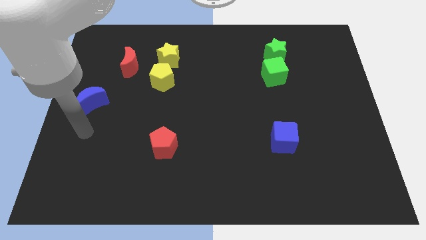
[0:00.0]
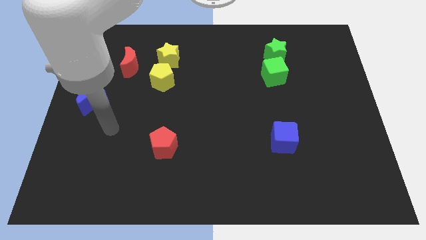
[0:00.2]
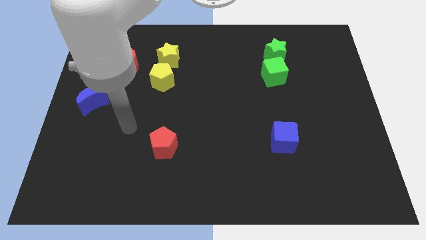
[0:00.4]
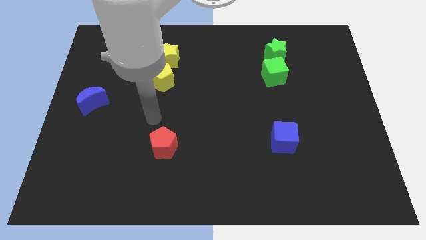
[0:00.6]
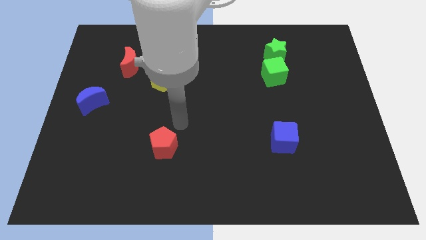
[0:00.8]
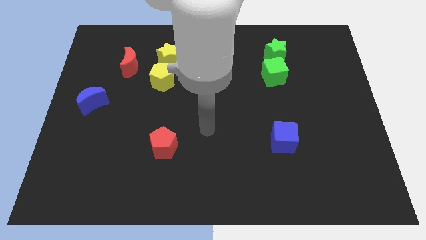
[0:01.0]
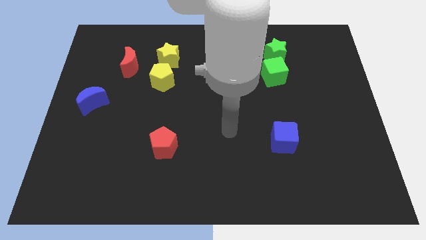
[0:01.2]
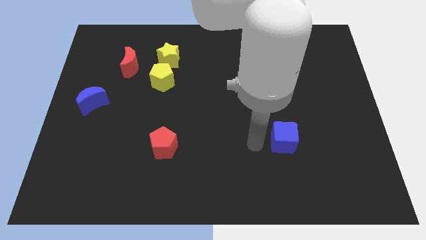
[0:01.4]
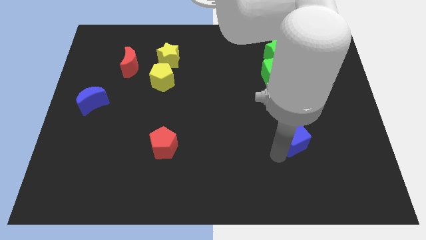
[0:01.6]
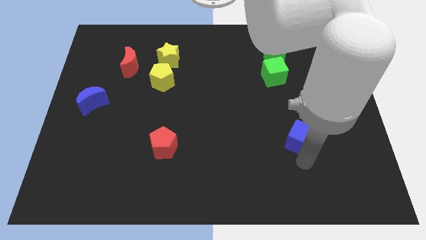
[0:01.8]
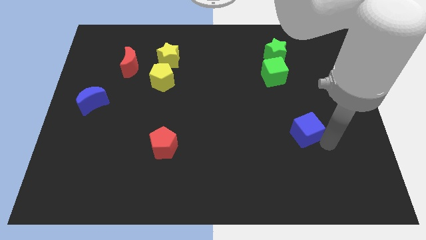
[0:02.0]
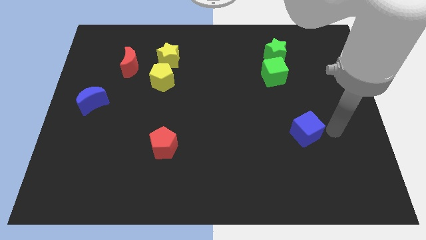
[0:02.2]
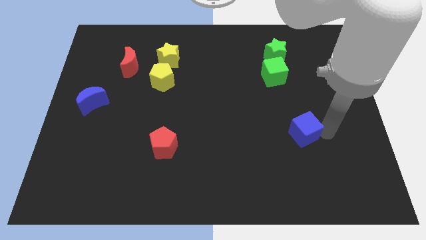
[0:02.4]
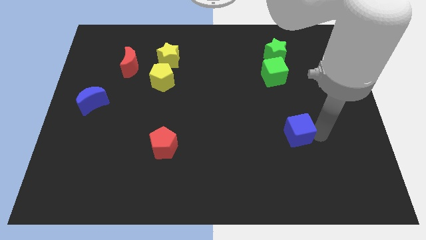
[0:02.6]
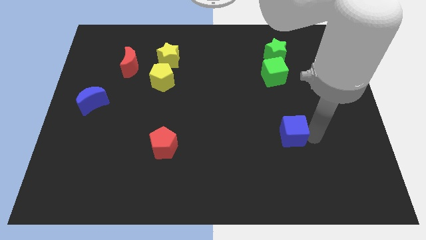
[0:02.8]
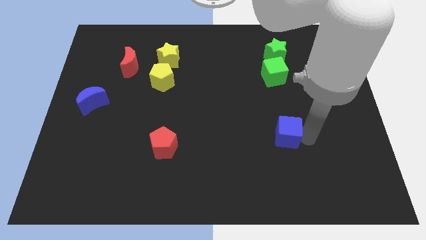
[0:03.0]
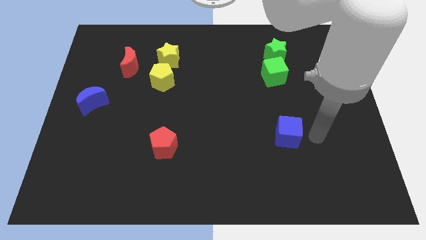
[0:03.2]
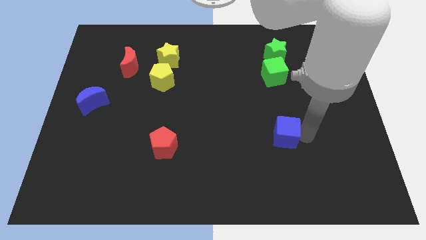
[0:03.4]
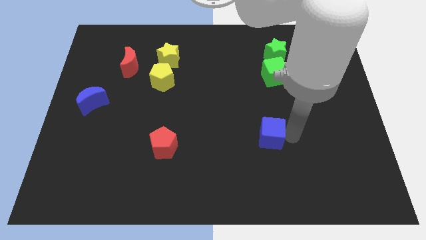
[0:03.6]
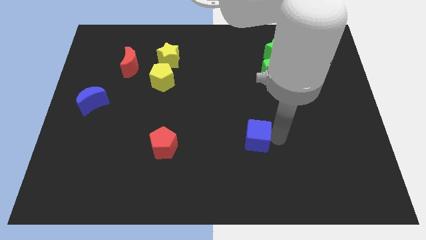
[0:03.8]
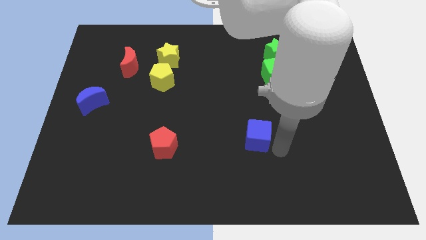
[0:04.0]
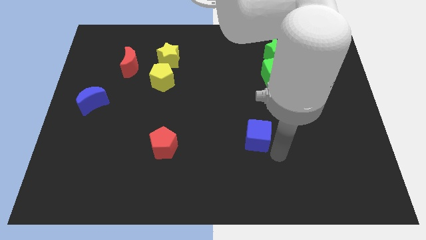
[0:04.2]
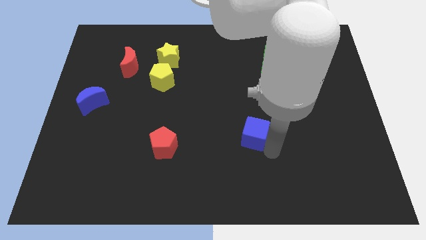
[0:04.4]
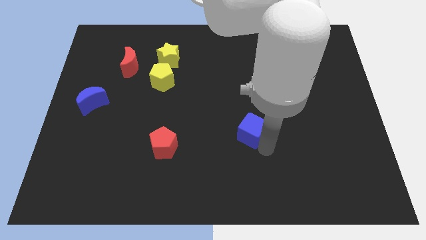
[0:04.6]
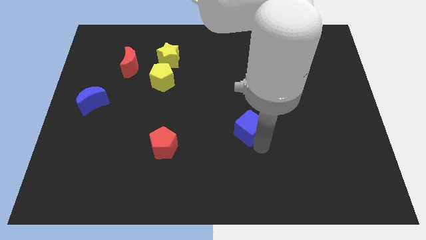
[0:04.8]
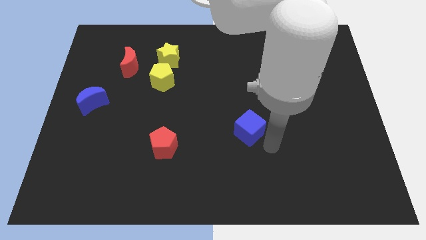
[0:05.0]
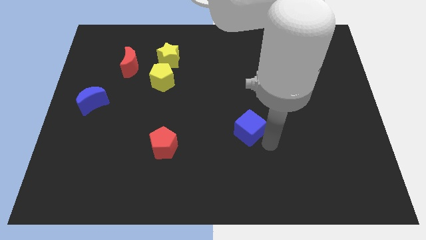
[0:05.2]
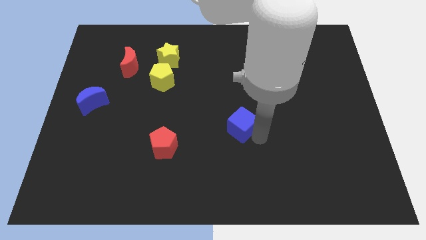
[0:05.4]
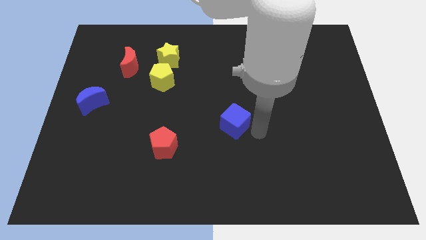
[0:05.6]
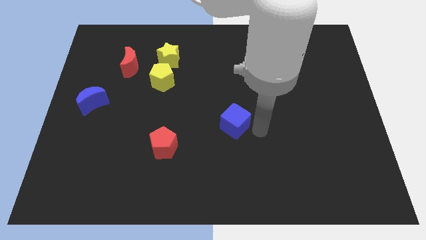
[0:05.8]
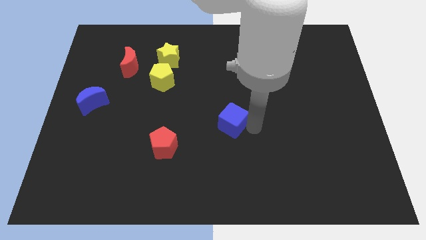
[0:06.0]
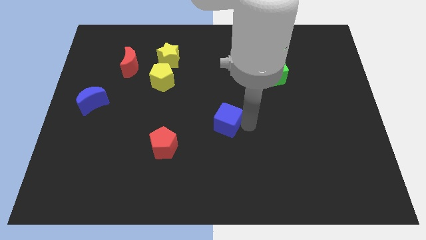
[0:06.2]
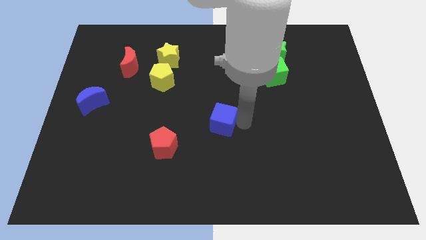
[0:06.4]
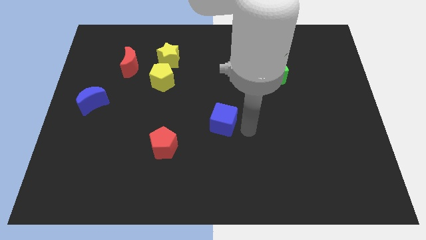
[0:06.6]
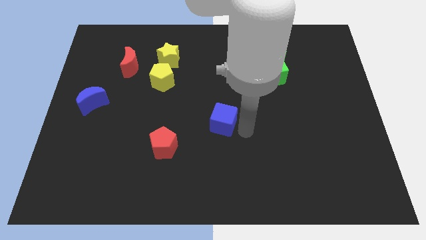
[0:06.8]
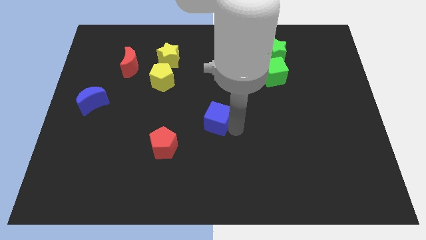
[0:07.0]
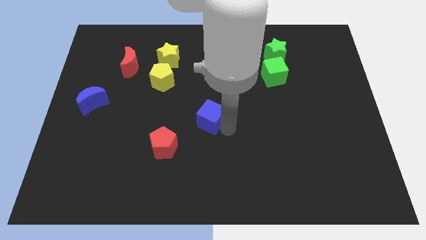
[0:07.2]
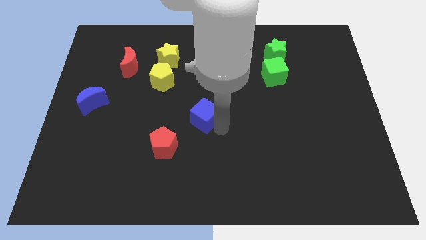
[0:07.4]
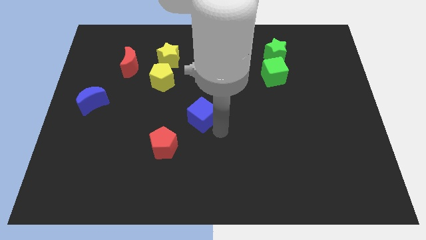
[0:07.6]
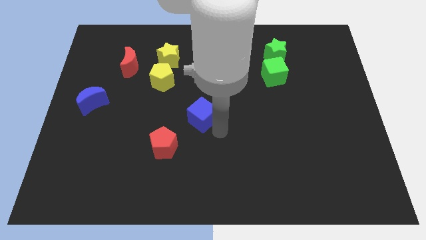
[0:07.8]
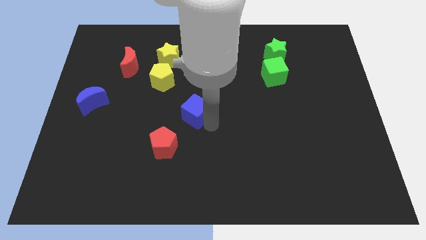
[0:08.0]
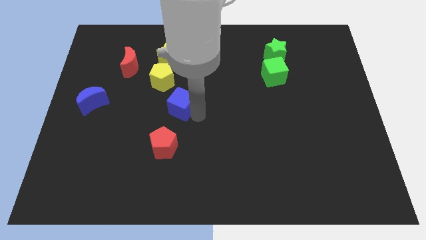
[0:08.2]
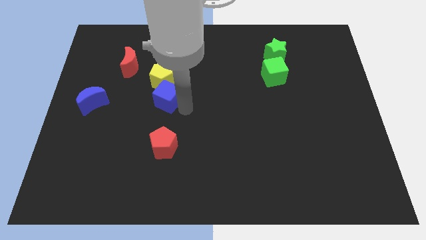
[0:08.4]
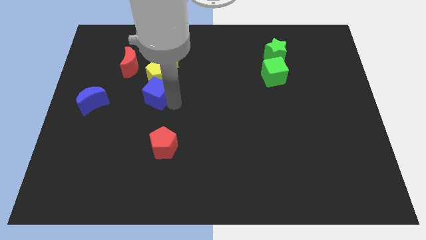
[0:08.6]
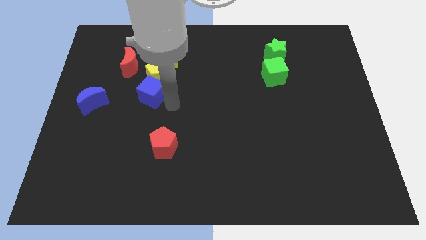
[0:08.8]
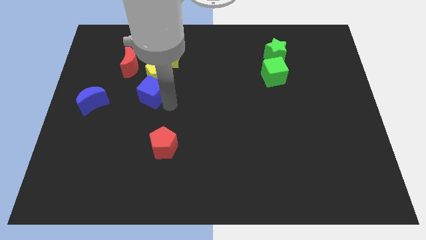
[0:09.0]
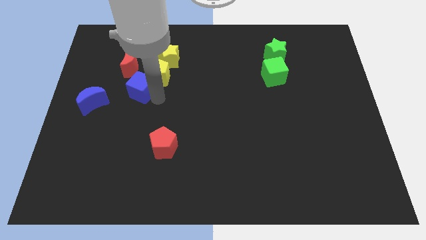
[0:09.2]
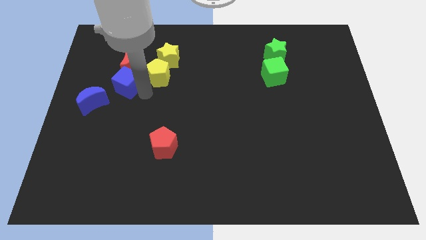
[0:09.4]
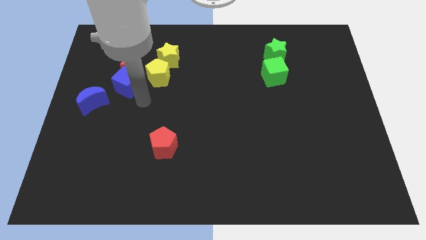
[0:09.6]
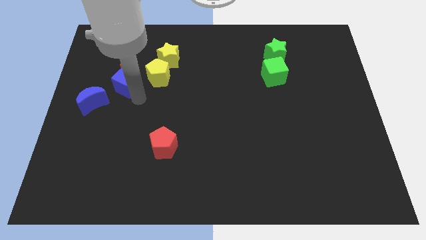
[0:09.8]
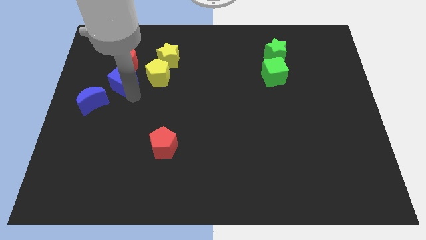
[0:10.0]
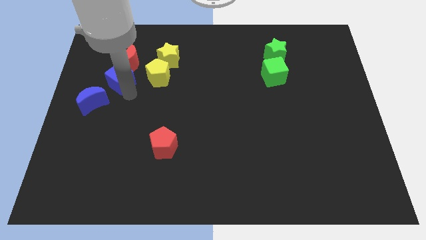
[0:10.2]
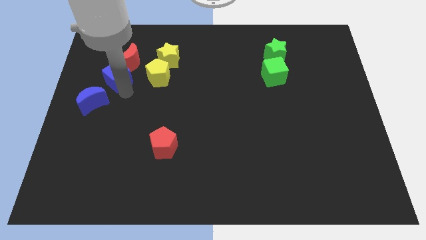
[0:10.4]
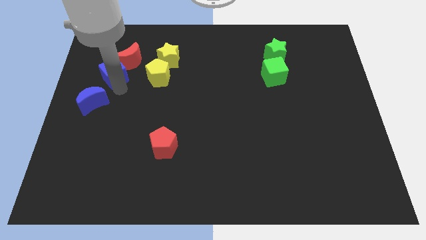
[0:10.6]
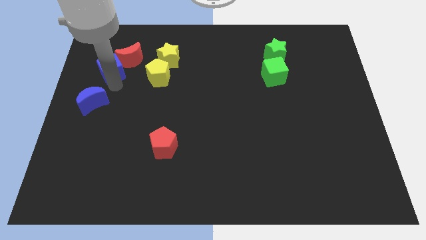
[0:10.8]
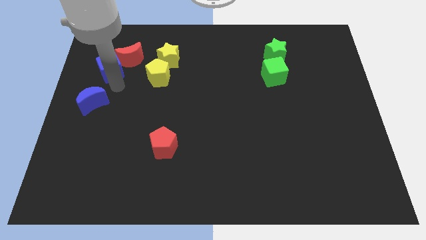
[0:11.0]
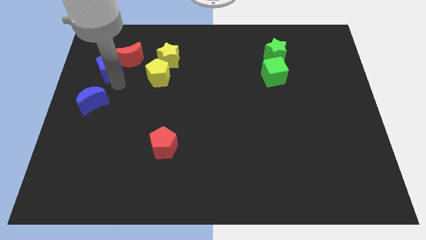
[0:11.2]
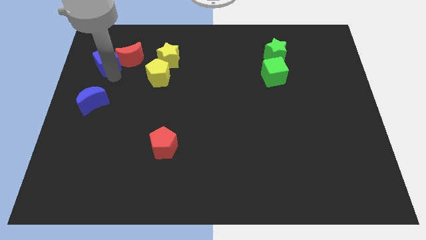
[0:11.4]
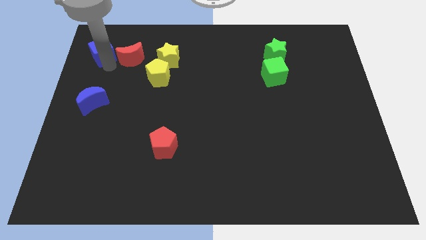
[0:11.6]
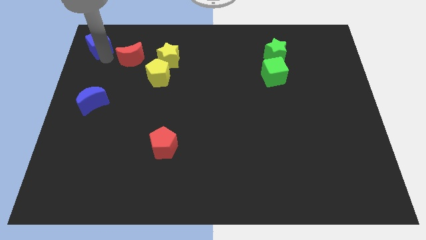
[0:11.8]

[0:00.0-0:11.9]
move the blue cube to the top left

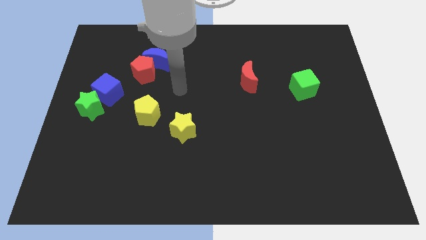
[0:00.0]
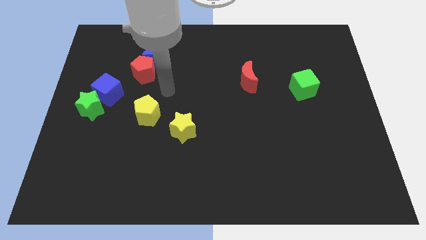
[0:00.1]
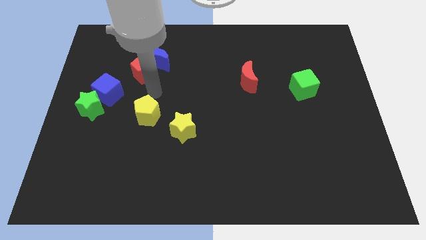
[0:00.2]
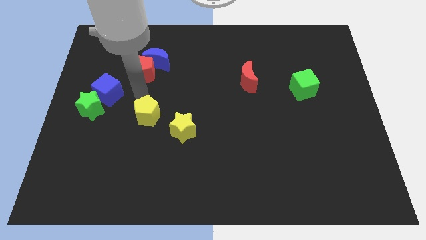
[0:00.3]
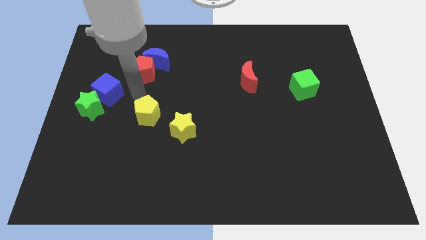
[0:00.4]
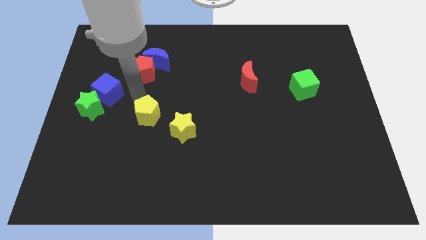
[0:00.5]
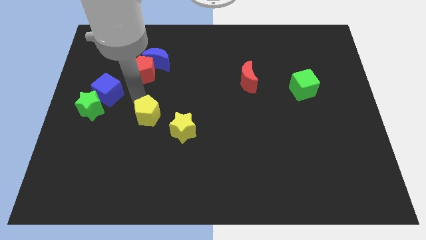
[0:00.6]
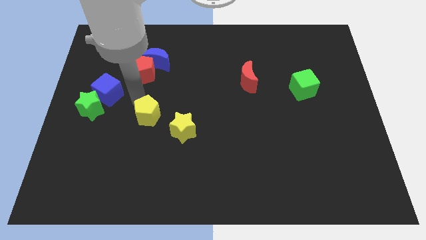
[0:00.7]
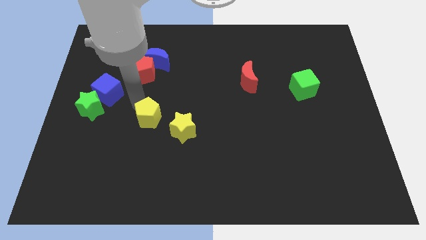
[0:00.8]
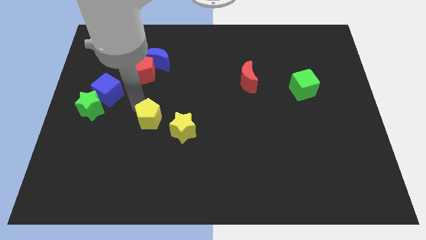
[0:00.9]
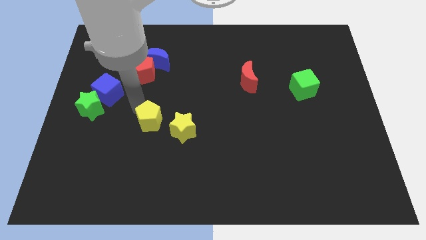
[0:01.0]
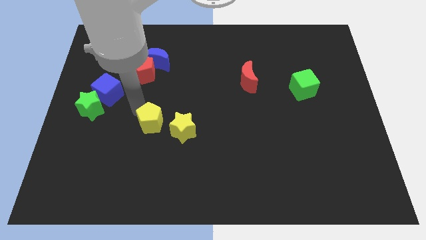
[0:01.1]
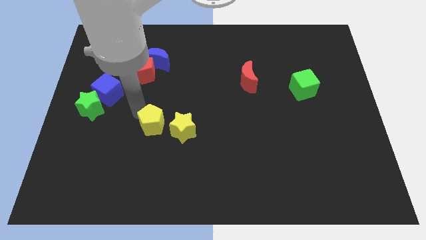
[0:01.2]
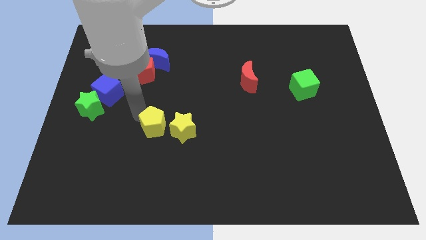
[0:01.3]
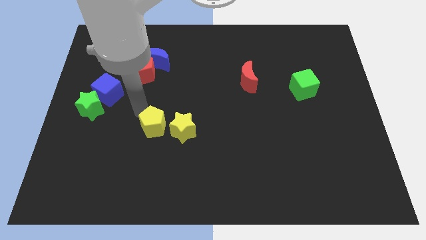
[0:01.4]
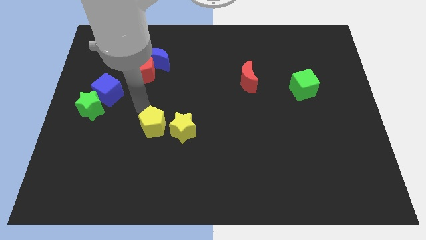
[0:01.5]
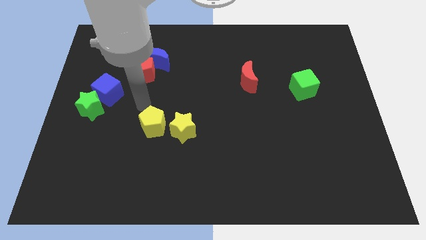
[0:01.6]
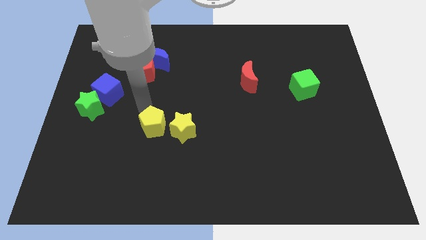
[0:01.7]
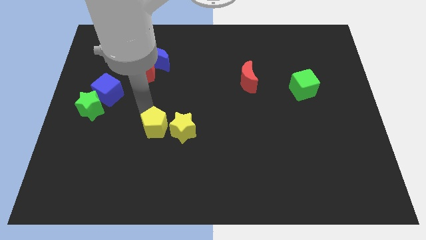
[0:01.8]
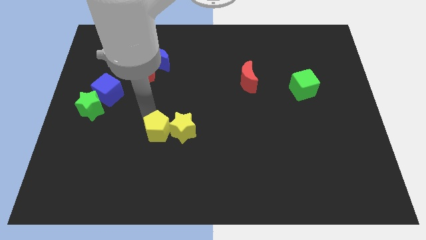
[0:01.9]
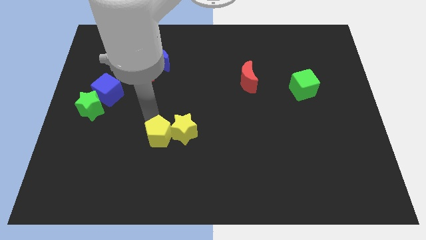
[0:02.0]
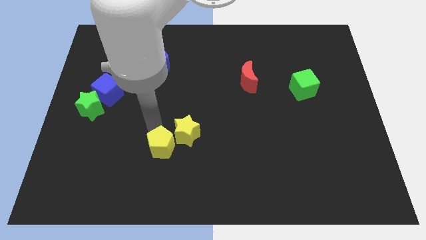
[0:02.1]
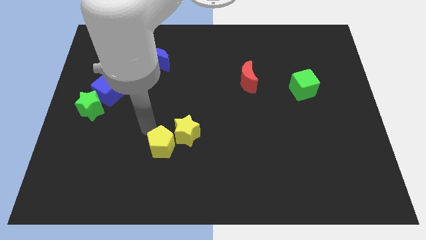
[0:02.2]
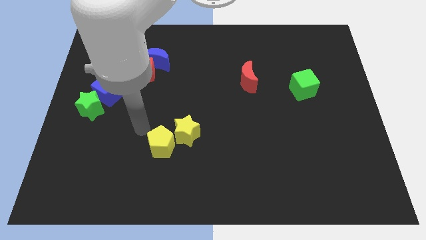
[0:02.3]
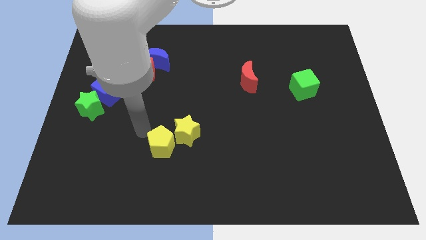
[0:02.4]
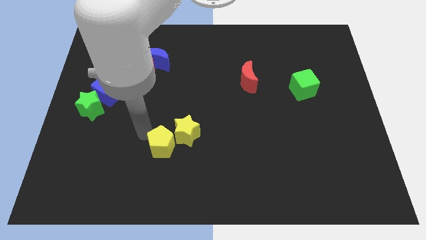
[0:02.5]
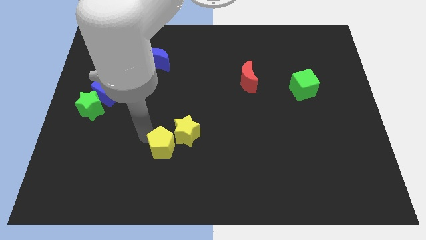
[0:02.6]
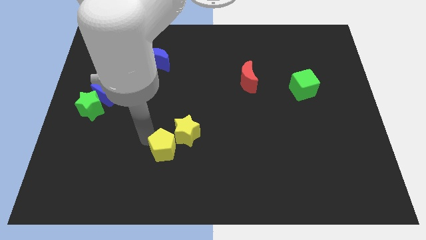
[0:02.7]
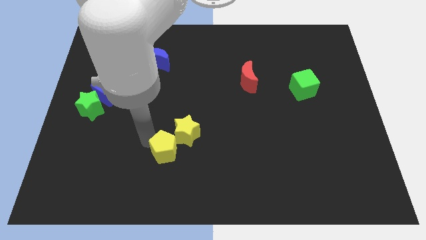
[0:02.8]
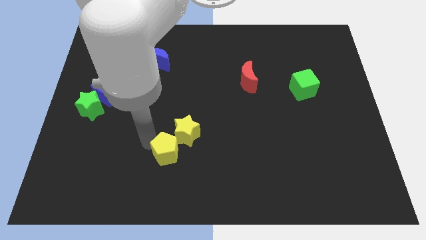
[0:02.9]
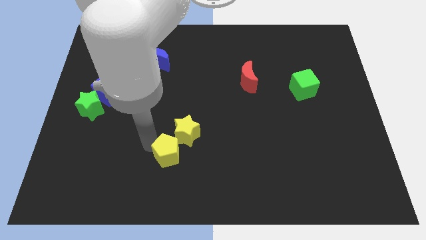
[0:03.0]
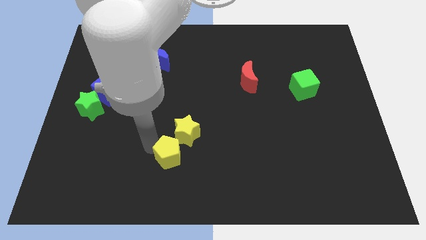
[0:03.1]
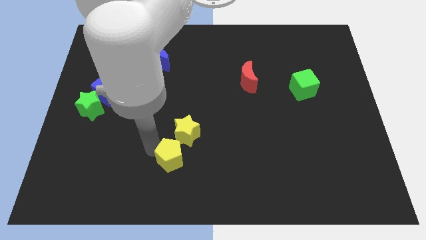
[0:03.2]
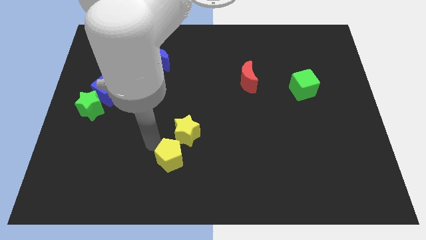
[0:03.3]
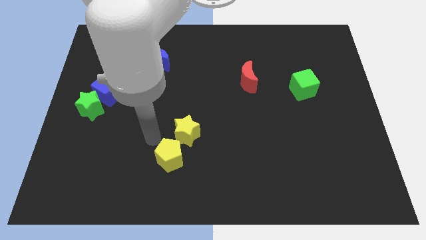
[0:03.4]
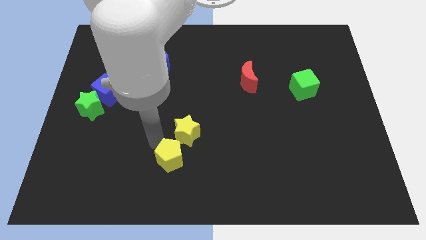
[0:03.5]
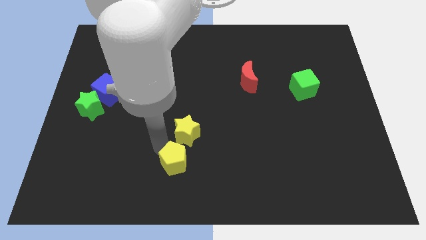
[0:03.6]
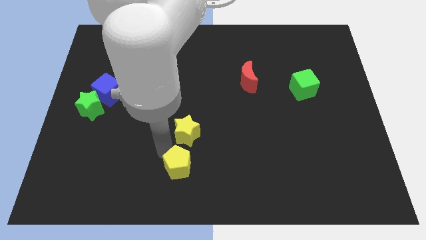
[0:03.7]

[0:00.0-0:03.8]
push the yellow pentagon to the bottom side
